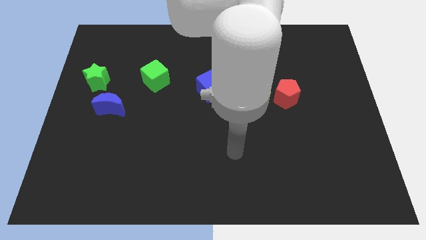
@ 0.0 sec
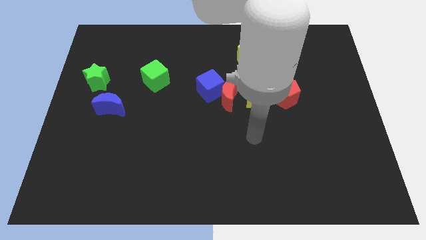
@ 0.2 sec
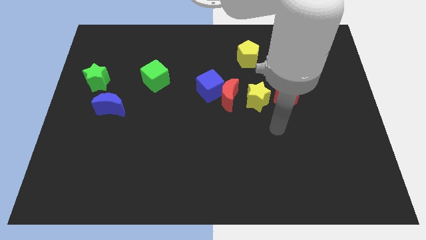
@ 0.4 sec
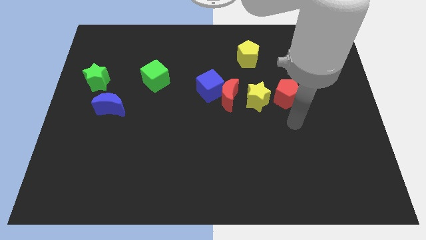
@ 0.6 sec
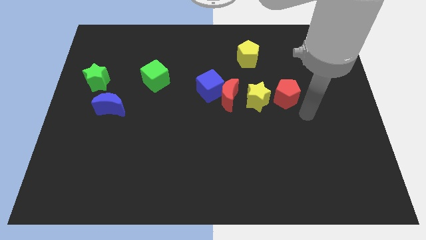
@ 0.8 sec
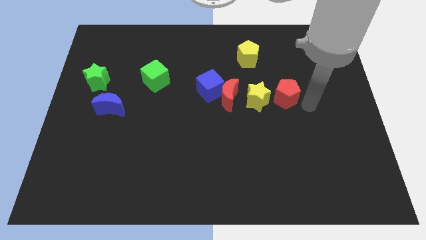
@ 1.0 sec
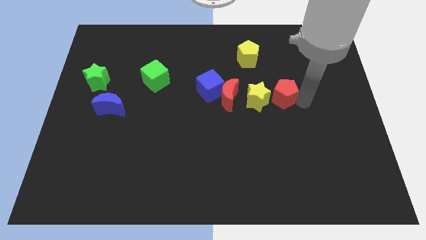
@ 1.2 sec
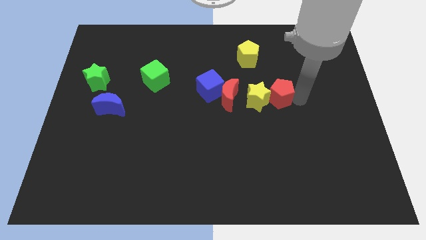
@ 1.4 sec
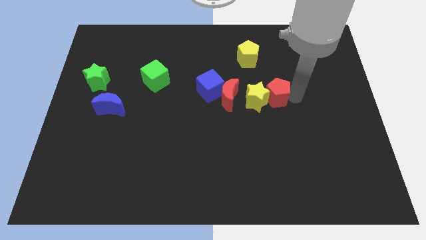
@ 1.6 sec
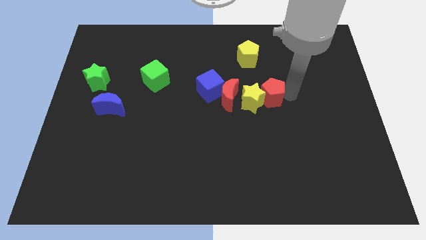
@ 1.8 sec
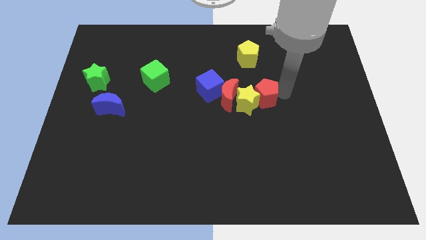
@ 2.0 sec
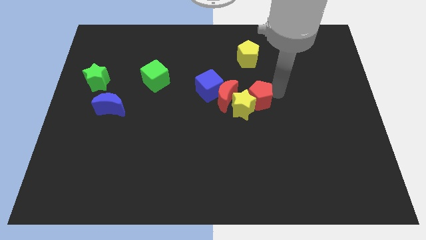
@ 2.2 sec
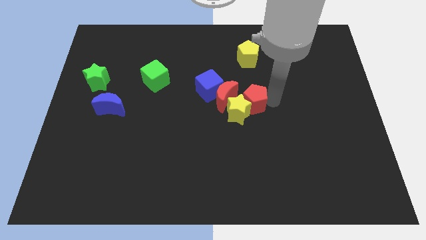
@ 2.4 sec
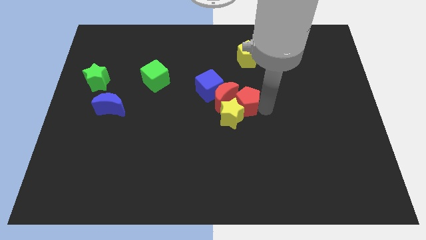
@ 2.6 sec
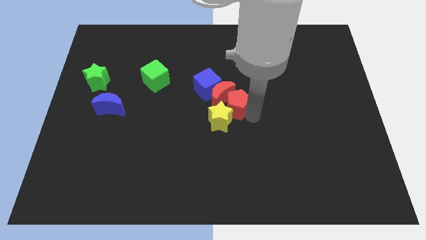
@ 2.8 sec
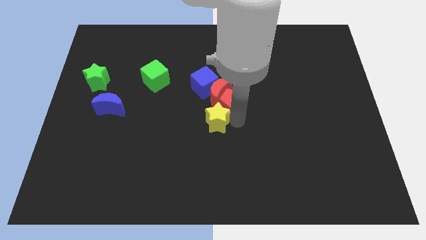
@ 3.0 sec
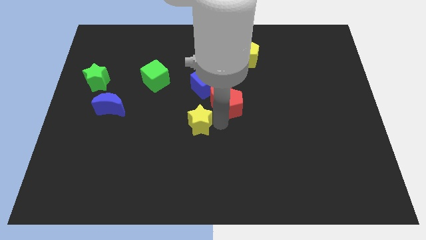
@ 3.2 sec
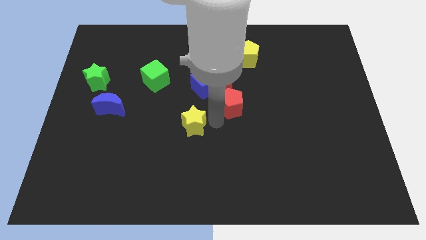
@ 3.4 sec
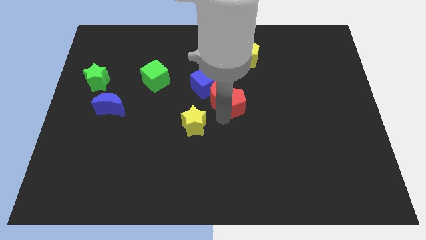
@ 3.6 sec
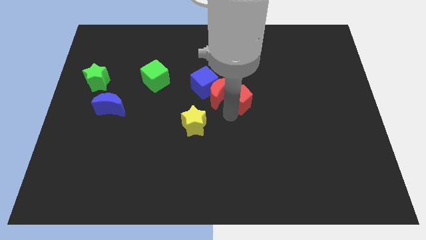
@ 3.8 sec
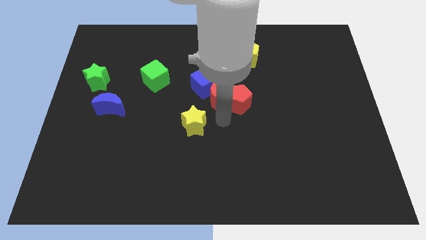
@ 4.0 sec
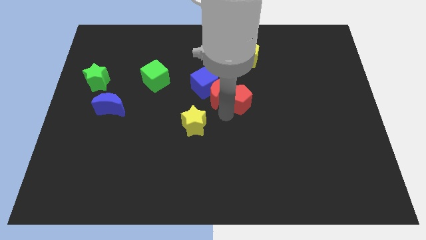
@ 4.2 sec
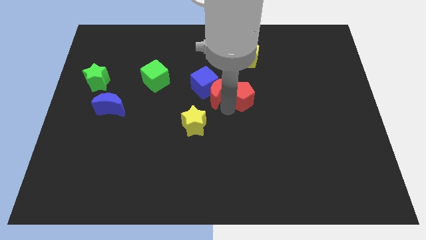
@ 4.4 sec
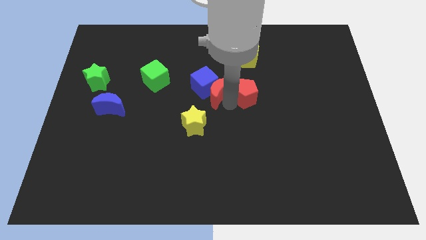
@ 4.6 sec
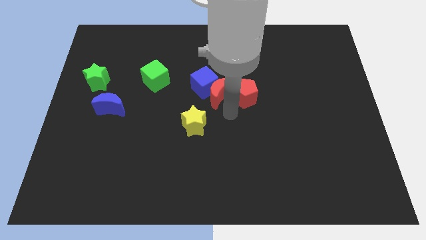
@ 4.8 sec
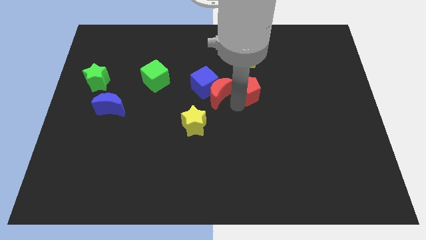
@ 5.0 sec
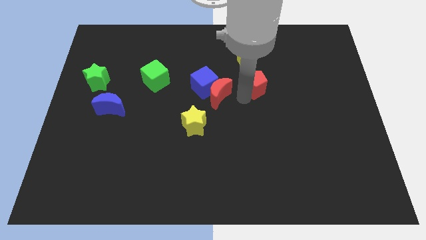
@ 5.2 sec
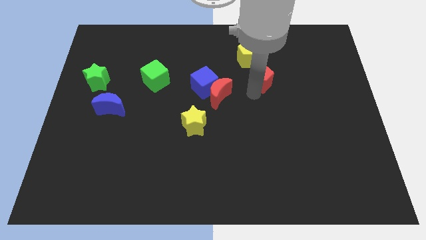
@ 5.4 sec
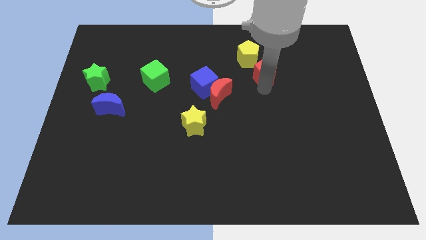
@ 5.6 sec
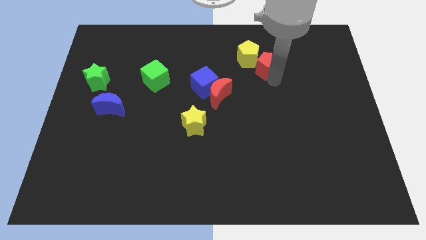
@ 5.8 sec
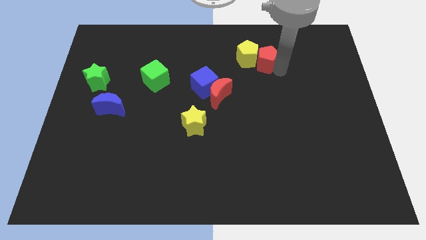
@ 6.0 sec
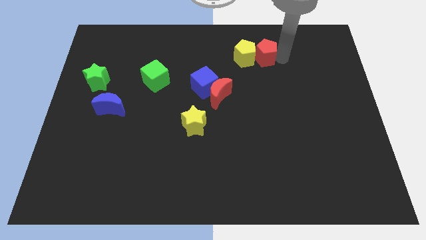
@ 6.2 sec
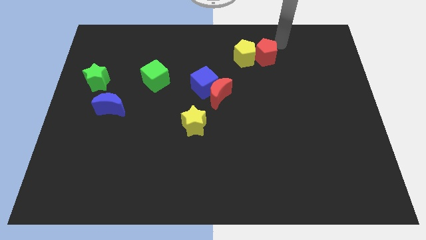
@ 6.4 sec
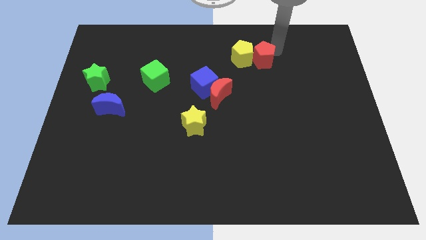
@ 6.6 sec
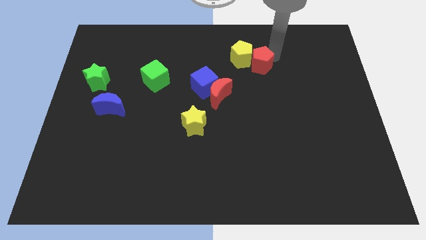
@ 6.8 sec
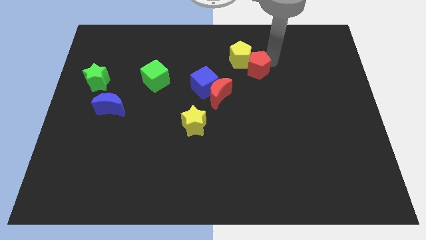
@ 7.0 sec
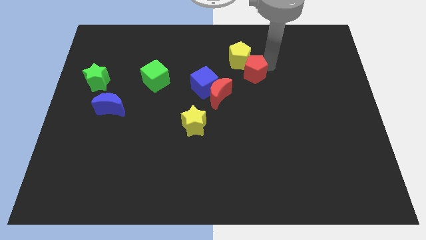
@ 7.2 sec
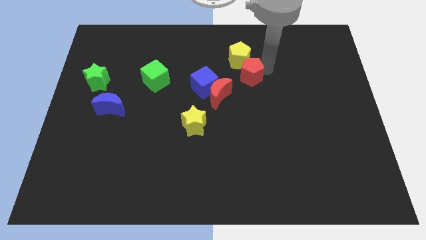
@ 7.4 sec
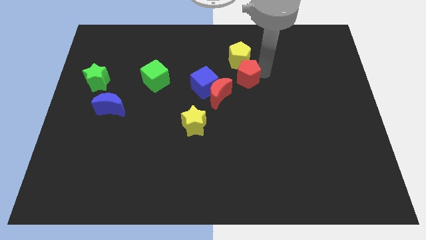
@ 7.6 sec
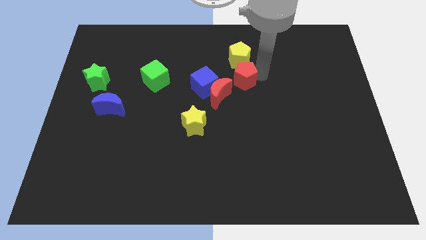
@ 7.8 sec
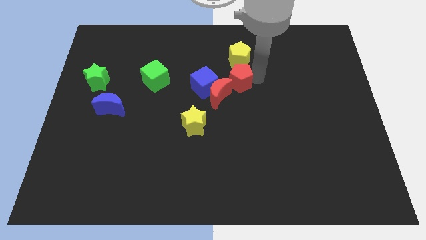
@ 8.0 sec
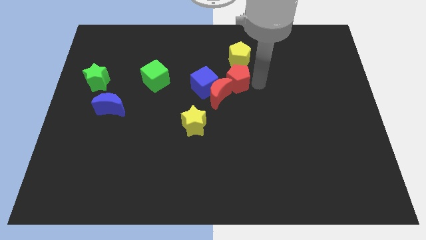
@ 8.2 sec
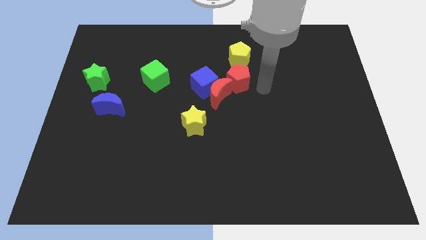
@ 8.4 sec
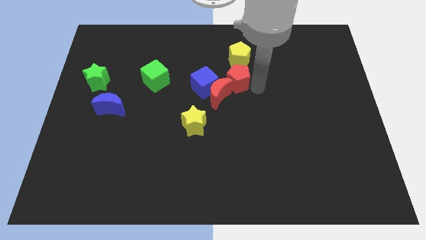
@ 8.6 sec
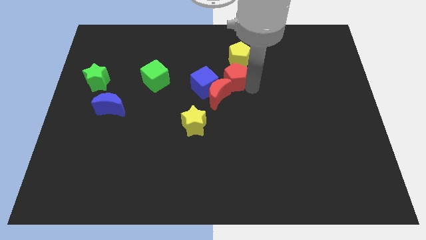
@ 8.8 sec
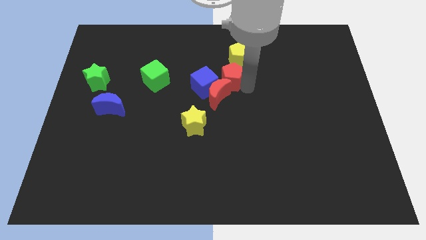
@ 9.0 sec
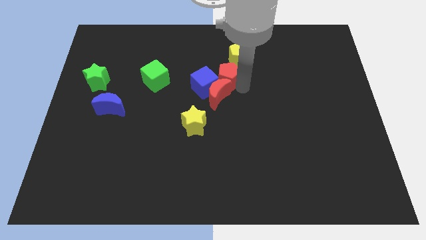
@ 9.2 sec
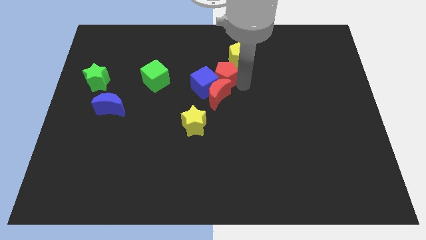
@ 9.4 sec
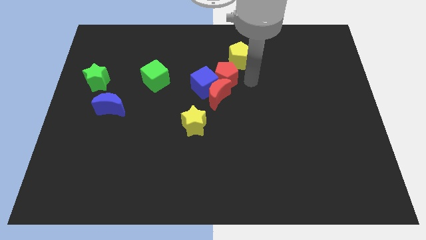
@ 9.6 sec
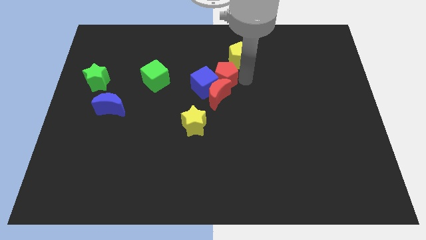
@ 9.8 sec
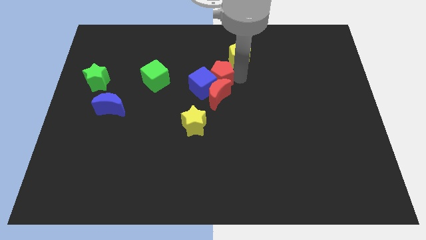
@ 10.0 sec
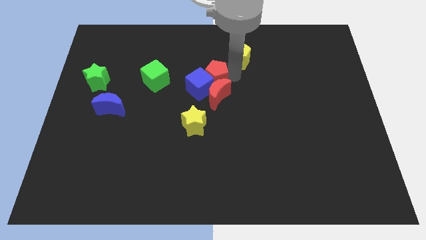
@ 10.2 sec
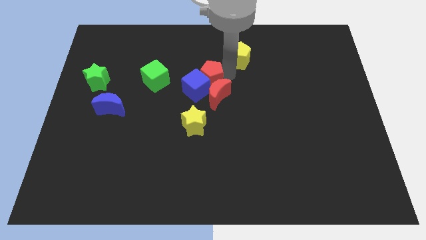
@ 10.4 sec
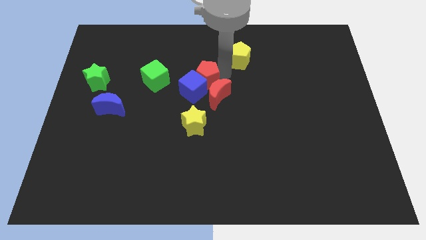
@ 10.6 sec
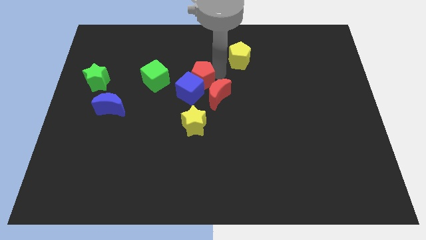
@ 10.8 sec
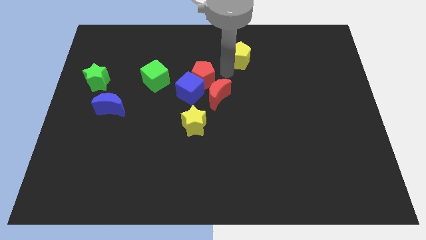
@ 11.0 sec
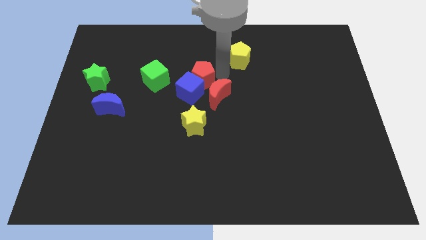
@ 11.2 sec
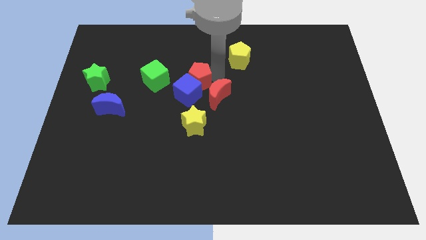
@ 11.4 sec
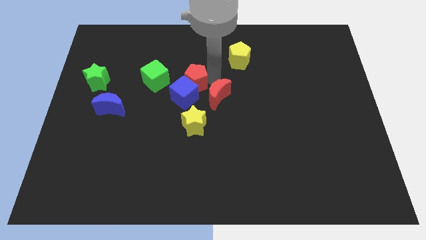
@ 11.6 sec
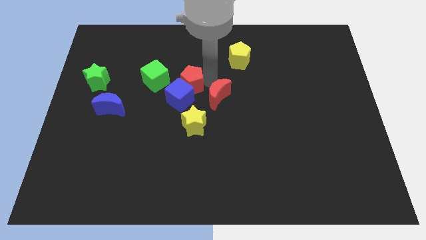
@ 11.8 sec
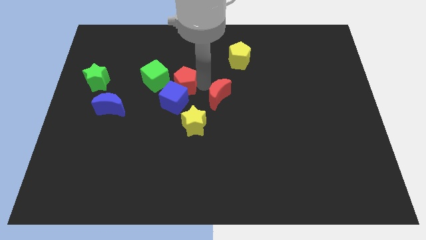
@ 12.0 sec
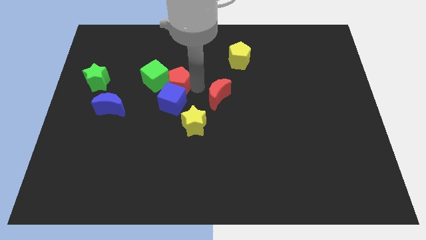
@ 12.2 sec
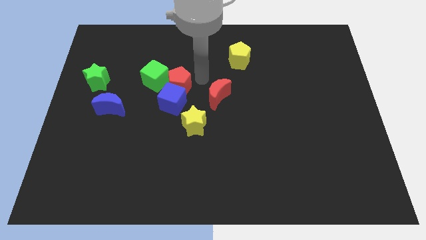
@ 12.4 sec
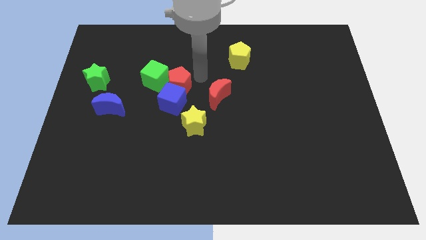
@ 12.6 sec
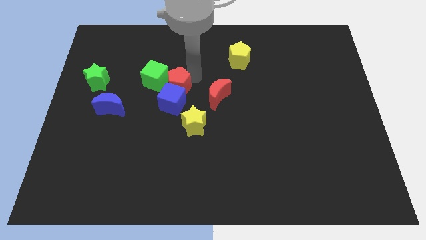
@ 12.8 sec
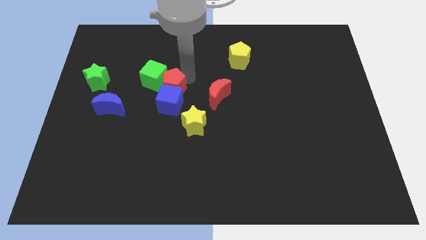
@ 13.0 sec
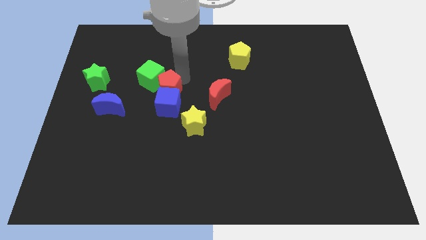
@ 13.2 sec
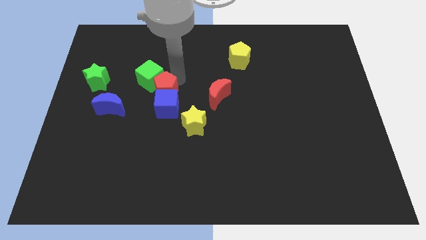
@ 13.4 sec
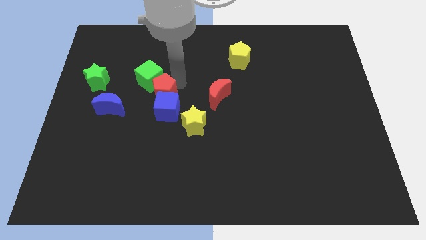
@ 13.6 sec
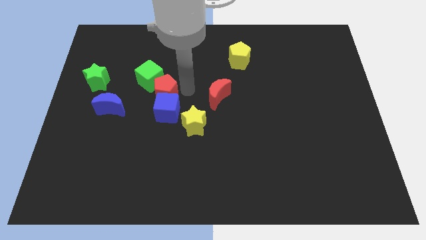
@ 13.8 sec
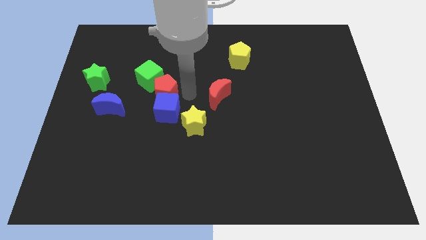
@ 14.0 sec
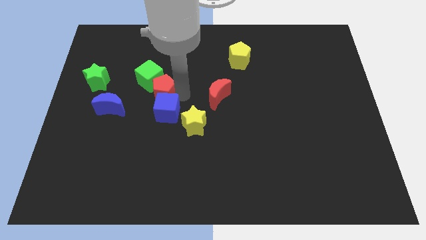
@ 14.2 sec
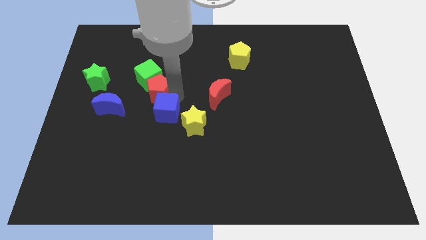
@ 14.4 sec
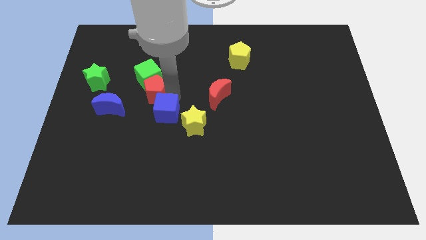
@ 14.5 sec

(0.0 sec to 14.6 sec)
put the red pentagon to the top right of the blue moon
